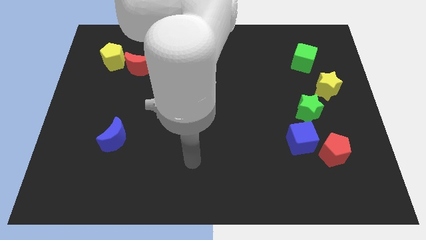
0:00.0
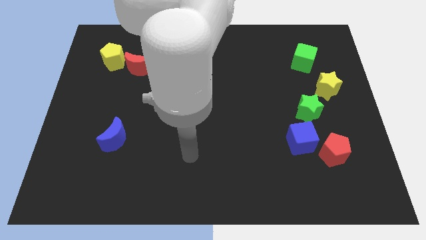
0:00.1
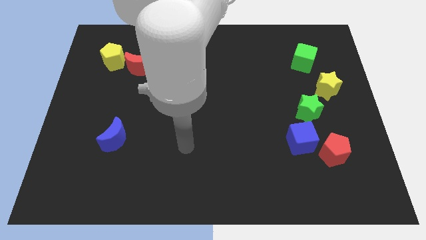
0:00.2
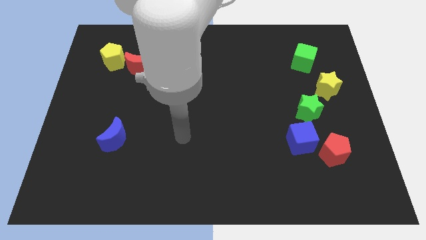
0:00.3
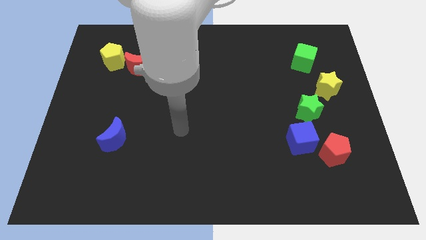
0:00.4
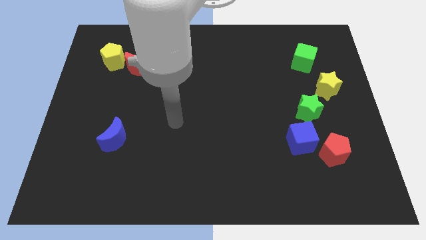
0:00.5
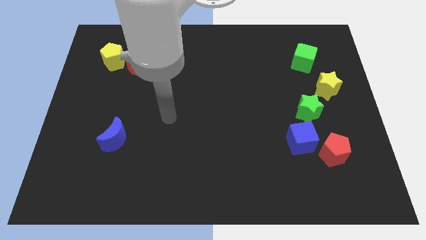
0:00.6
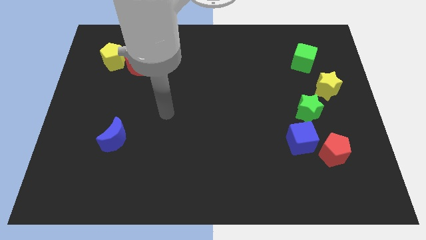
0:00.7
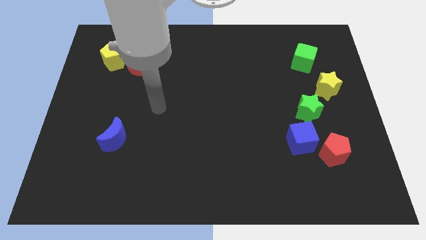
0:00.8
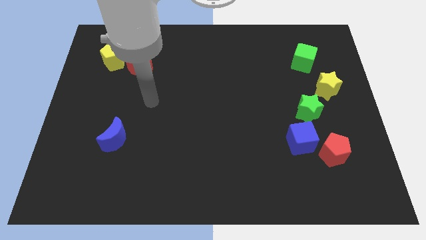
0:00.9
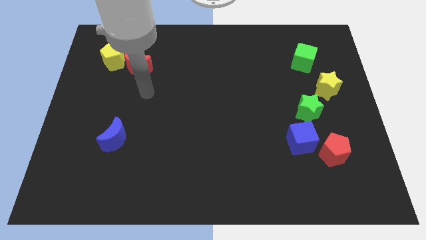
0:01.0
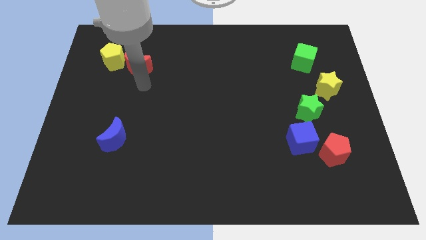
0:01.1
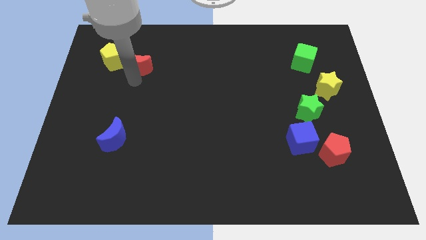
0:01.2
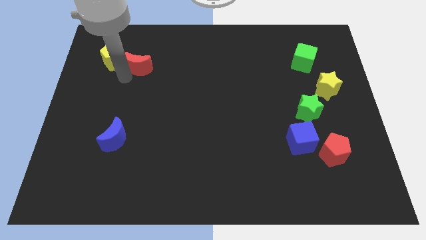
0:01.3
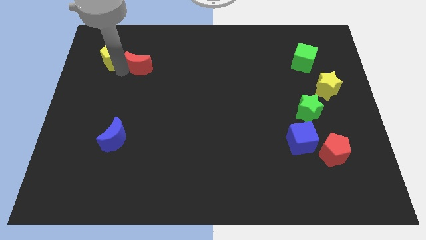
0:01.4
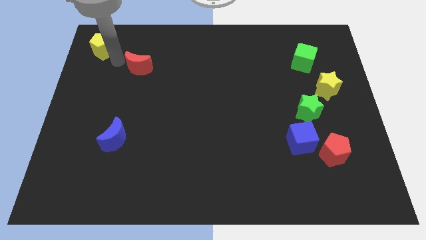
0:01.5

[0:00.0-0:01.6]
move the red moon away from the yellow pentagon

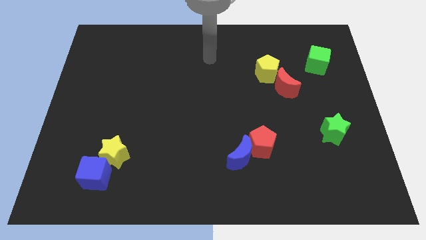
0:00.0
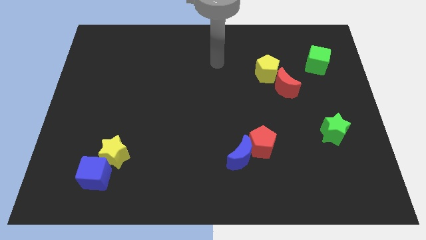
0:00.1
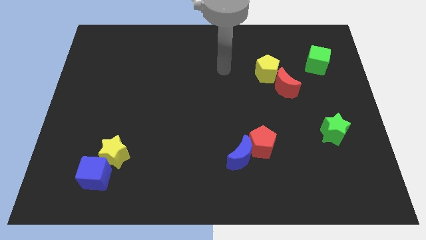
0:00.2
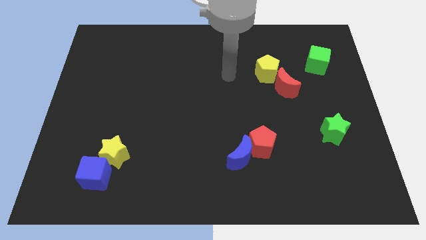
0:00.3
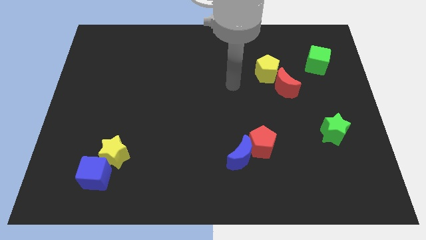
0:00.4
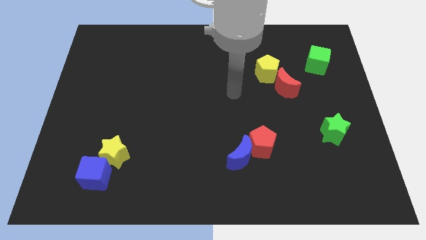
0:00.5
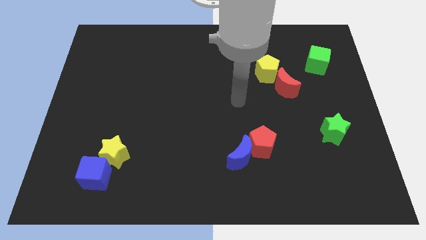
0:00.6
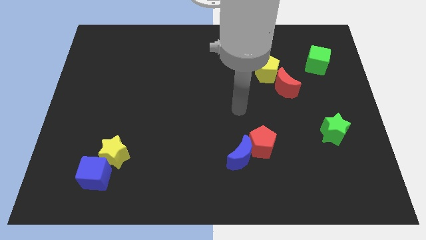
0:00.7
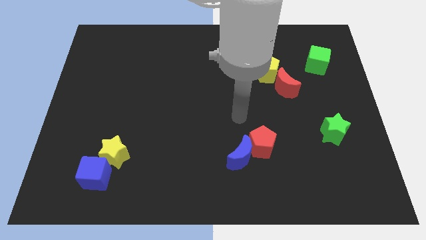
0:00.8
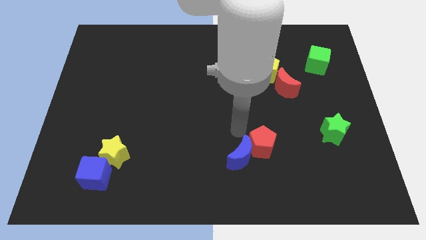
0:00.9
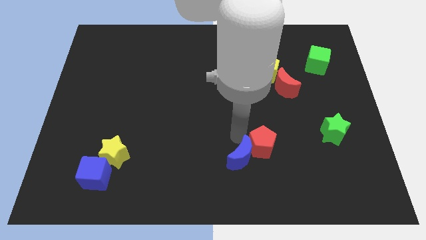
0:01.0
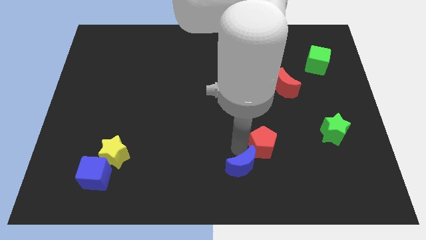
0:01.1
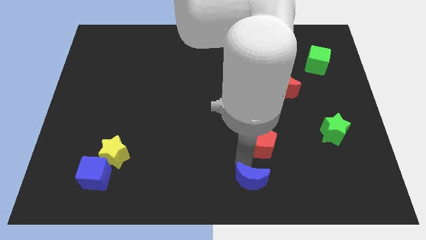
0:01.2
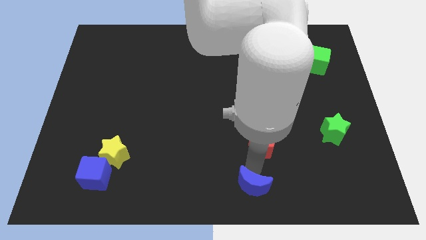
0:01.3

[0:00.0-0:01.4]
pull the red pentagon apart from the blue moon

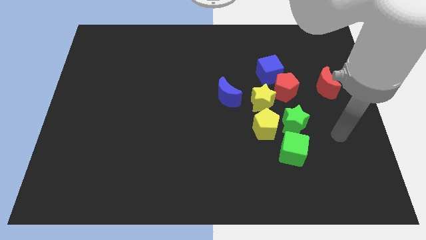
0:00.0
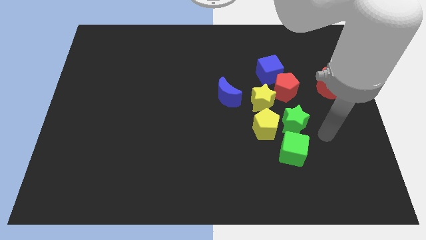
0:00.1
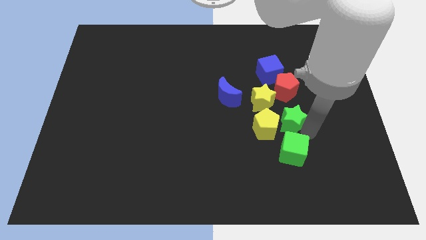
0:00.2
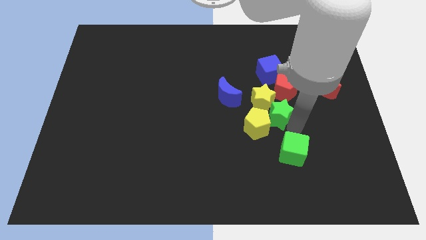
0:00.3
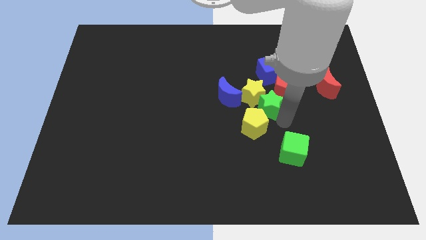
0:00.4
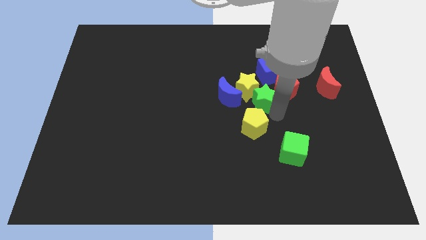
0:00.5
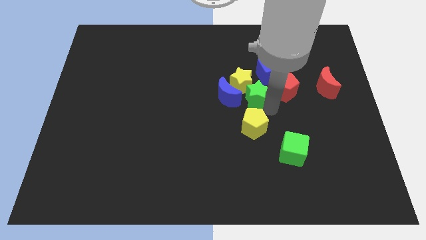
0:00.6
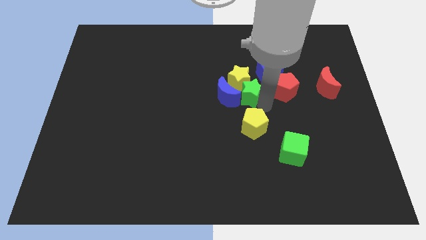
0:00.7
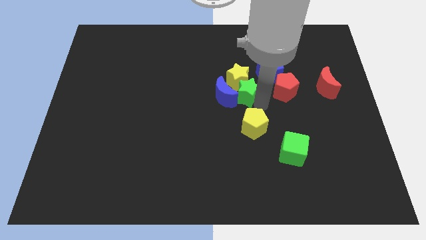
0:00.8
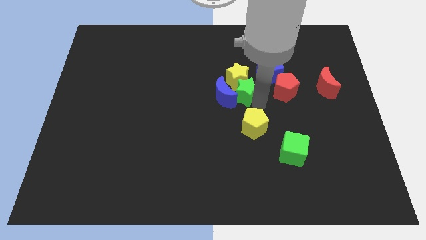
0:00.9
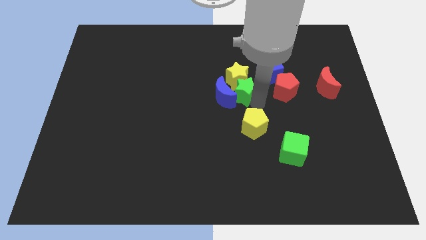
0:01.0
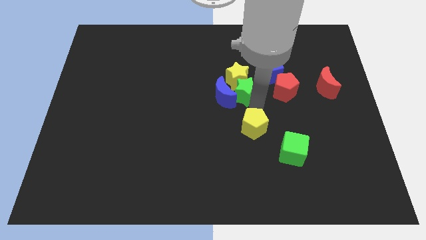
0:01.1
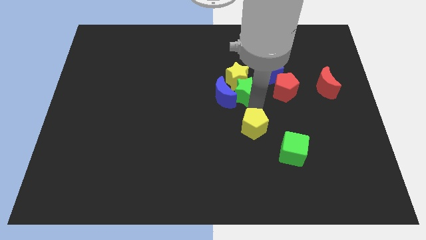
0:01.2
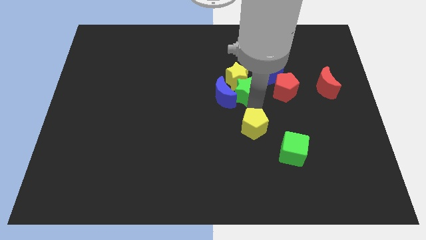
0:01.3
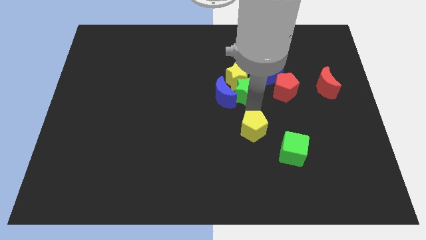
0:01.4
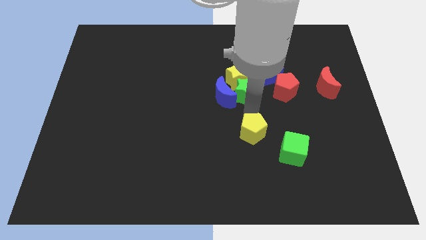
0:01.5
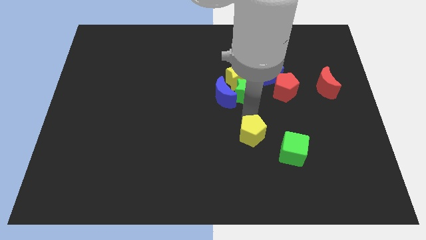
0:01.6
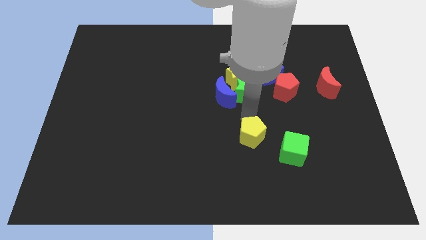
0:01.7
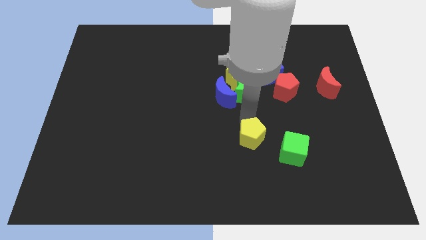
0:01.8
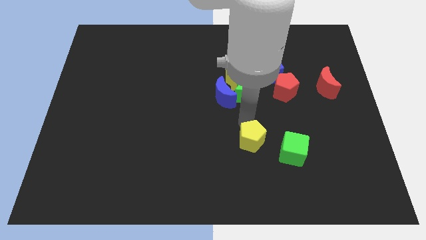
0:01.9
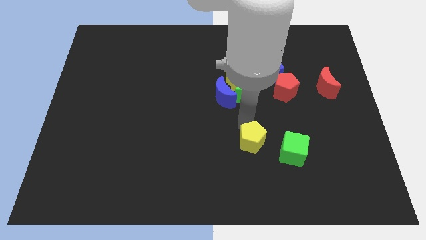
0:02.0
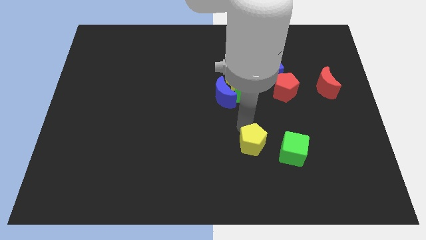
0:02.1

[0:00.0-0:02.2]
separate the yellow pentagon from the green star, yellow star, and green cube

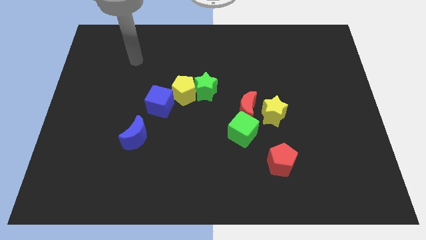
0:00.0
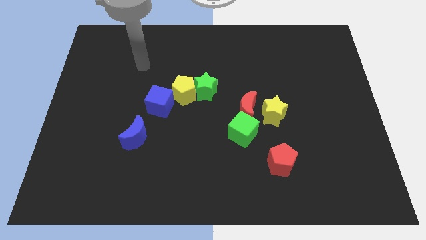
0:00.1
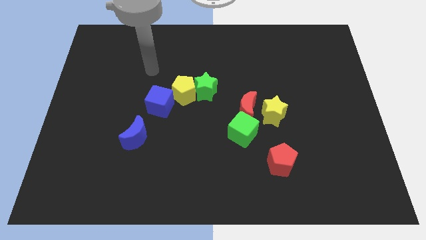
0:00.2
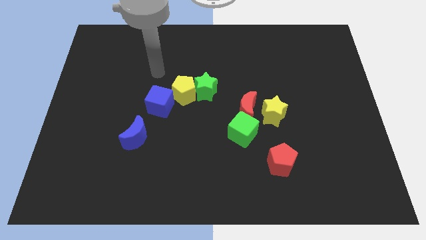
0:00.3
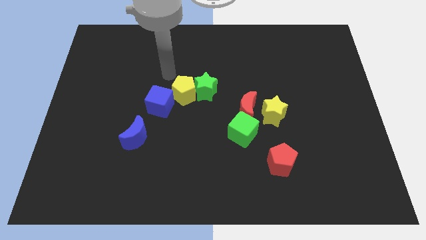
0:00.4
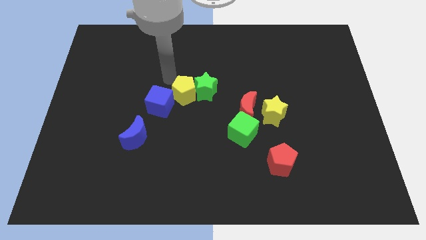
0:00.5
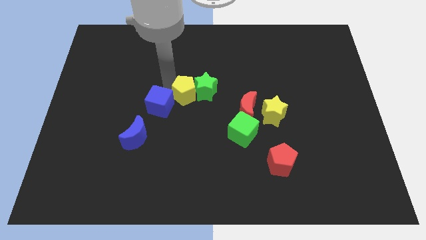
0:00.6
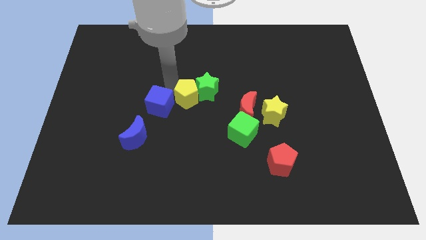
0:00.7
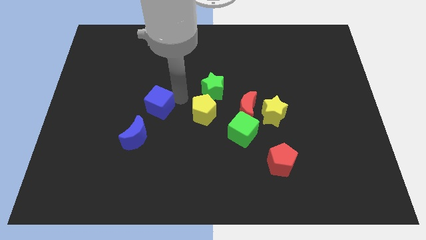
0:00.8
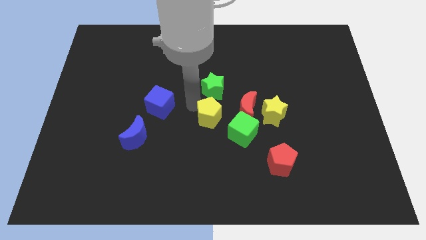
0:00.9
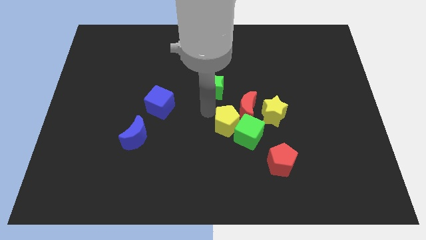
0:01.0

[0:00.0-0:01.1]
separate the green star from the yellow pentagon

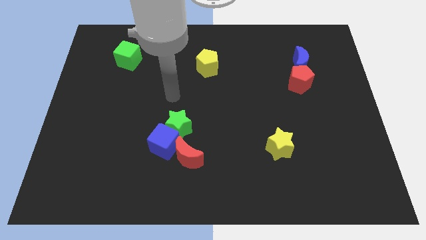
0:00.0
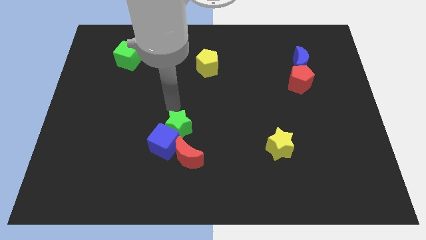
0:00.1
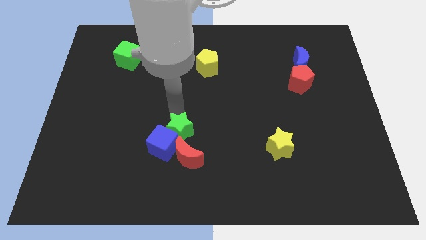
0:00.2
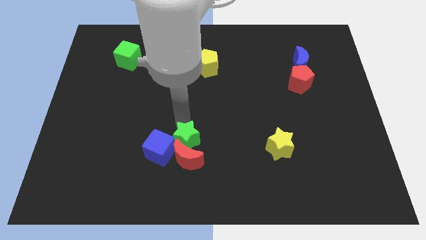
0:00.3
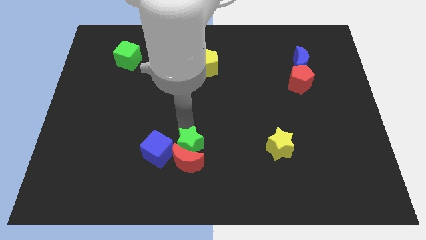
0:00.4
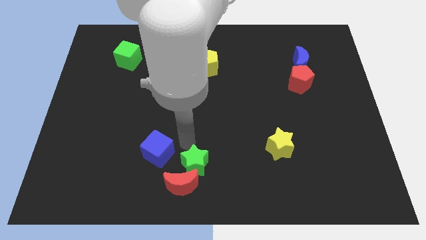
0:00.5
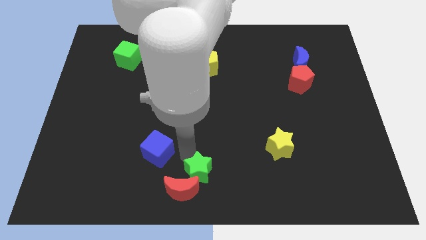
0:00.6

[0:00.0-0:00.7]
move the blue cube away from the green star and red moon

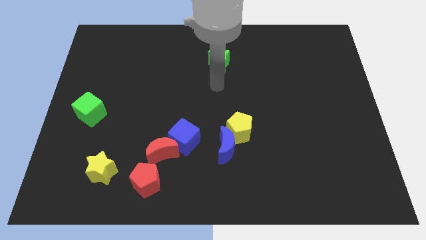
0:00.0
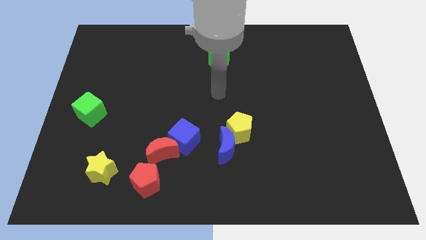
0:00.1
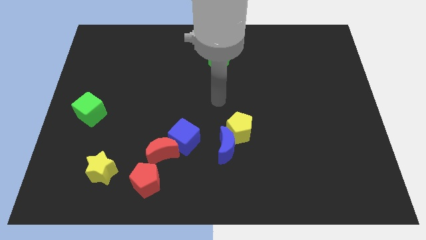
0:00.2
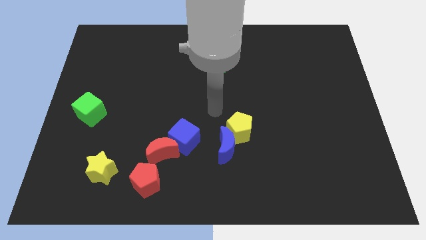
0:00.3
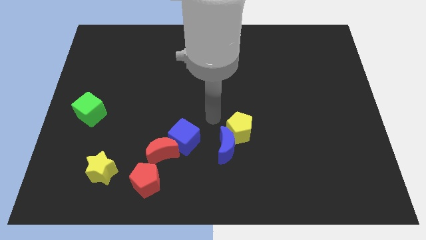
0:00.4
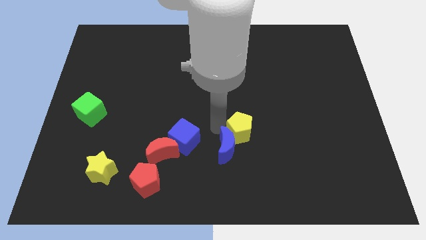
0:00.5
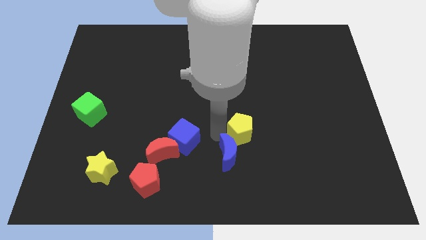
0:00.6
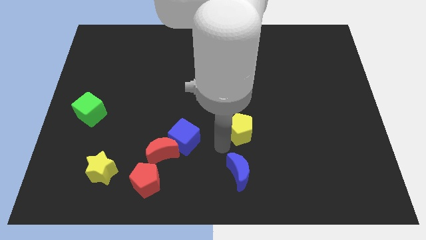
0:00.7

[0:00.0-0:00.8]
separate the yellow pentagon from the blue moon

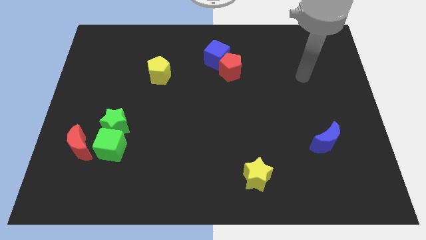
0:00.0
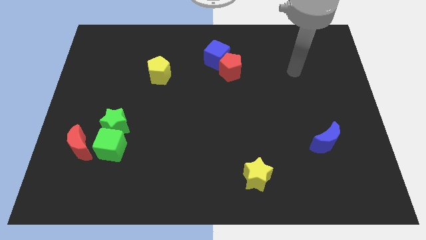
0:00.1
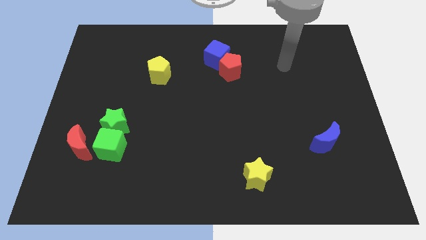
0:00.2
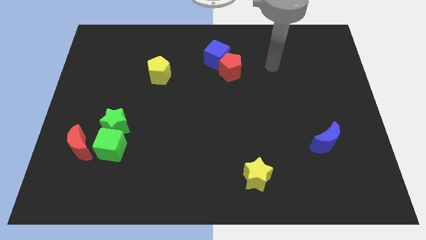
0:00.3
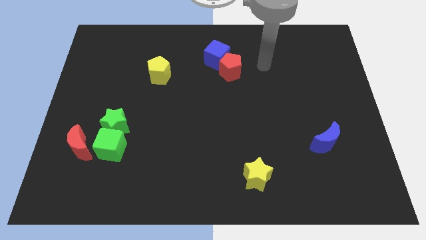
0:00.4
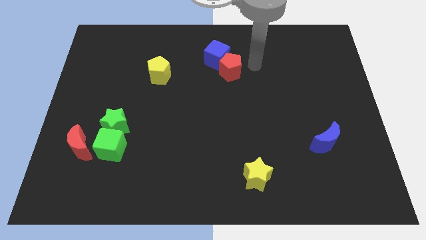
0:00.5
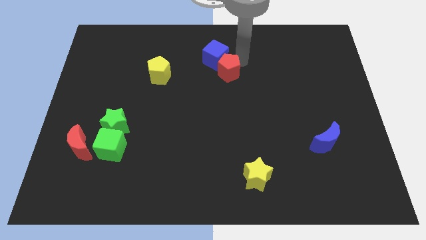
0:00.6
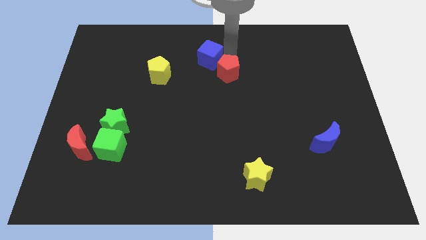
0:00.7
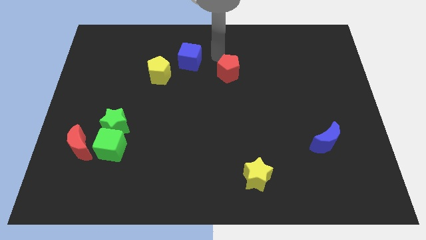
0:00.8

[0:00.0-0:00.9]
move the red pentagon away from the blue cube

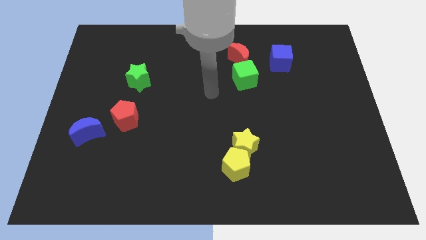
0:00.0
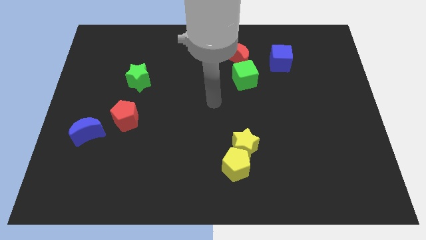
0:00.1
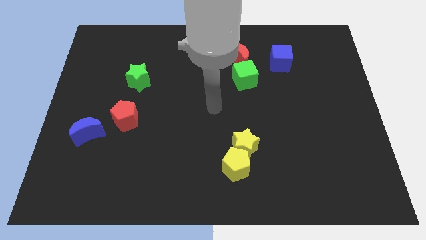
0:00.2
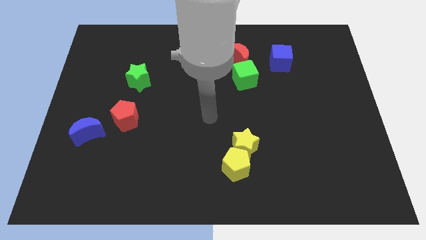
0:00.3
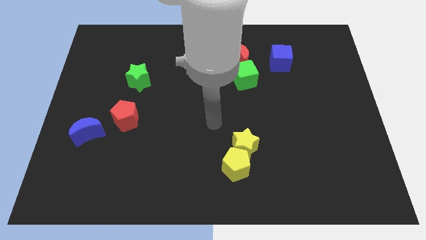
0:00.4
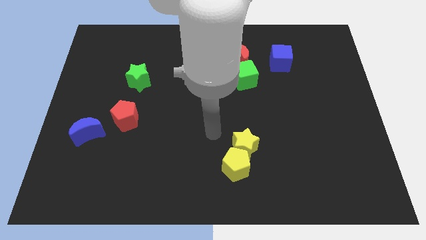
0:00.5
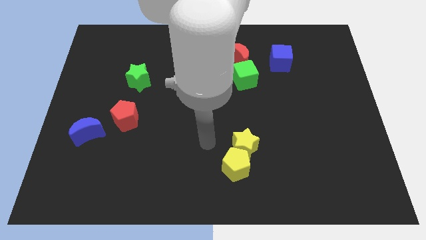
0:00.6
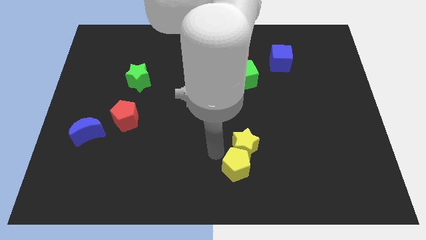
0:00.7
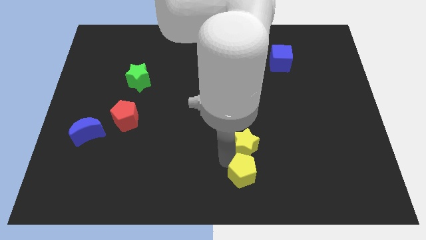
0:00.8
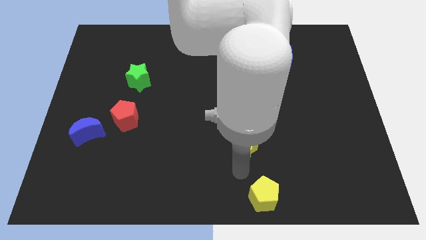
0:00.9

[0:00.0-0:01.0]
move the yellow star away from the yellow pentagon
